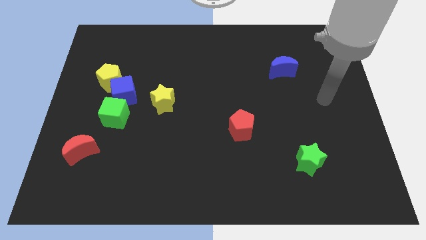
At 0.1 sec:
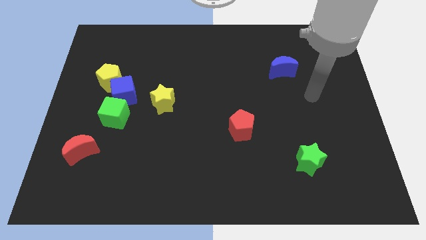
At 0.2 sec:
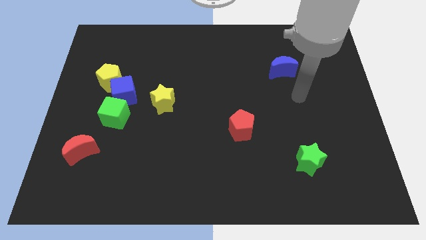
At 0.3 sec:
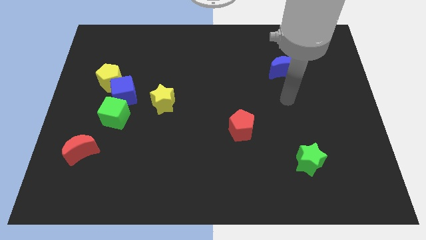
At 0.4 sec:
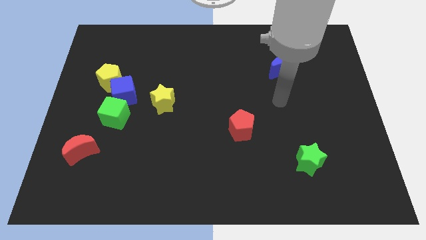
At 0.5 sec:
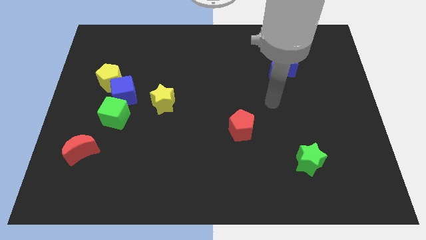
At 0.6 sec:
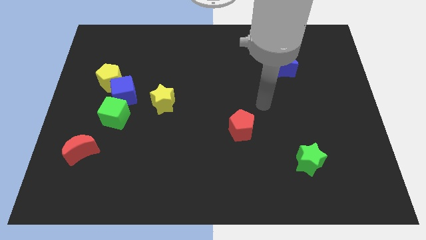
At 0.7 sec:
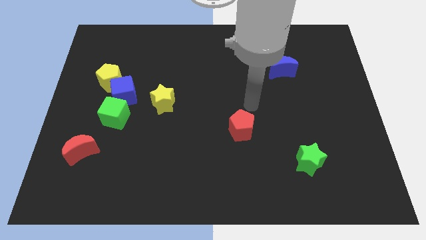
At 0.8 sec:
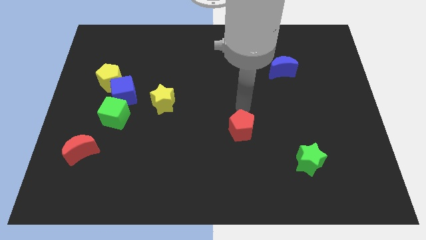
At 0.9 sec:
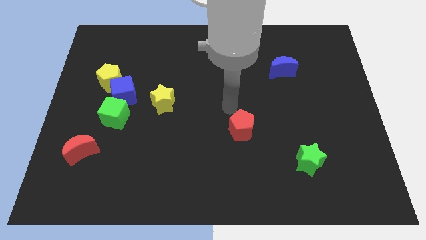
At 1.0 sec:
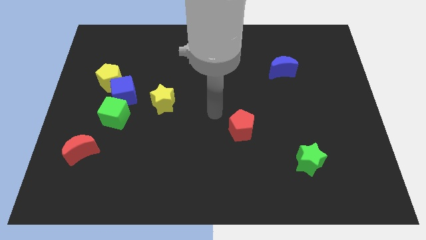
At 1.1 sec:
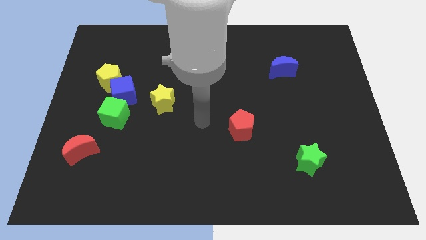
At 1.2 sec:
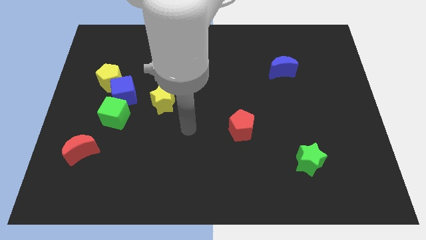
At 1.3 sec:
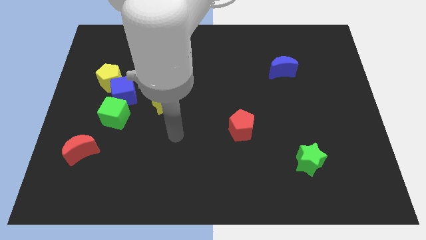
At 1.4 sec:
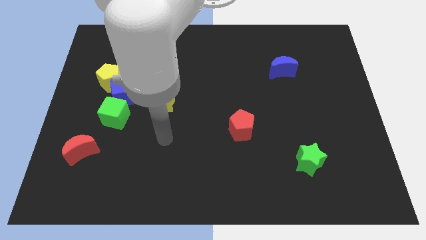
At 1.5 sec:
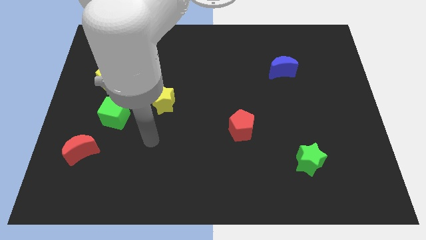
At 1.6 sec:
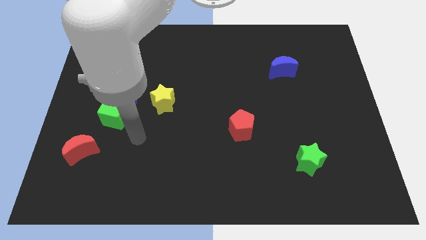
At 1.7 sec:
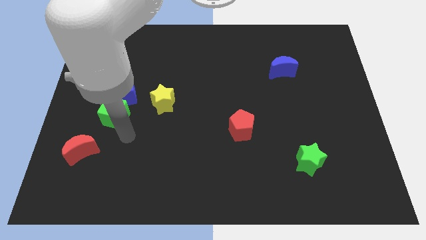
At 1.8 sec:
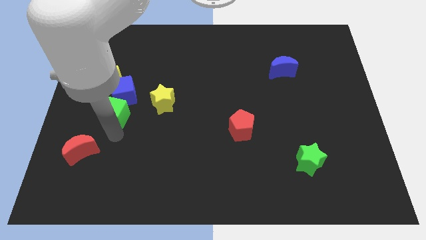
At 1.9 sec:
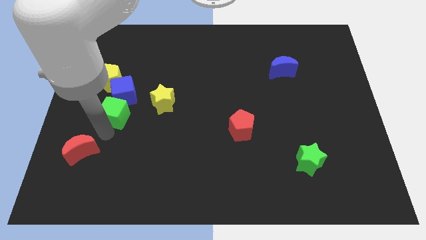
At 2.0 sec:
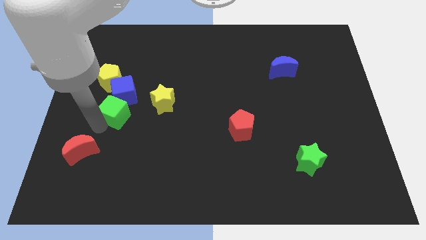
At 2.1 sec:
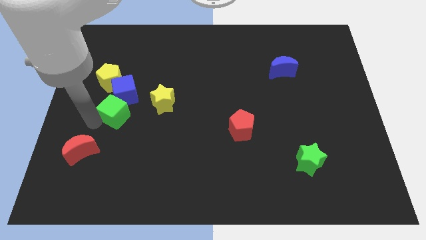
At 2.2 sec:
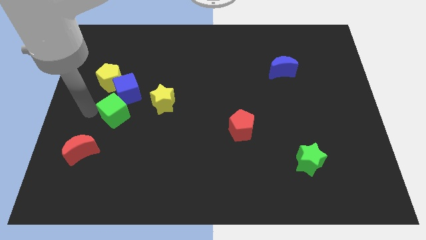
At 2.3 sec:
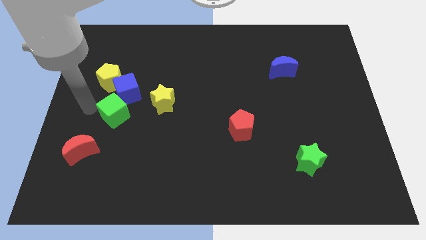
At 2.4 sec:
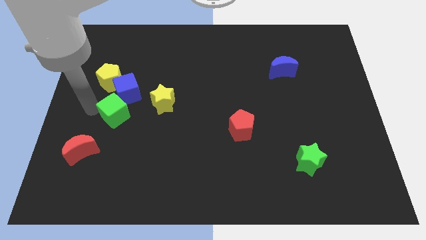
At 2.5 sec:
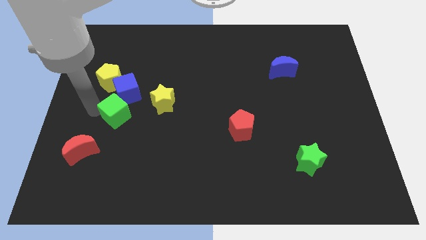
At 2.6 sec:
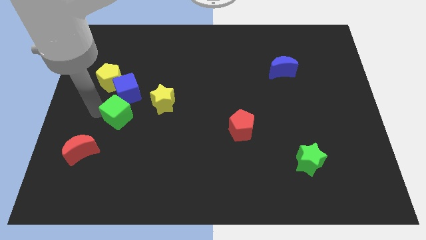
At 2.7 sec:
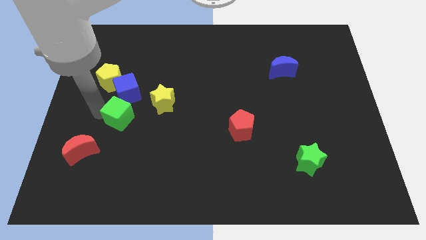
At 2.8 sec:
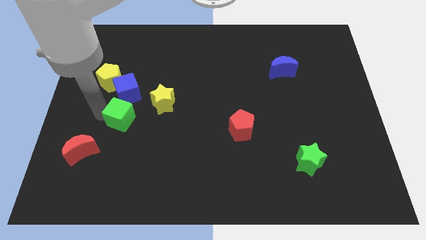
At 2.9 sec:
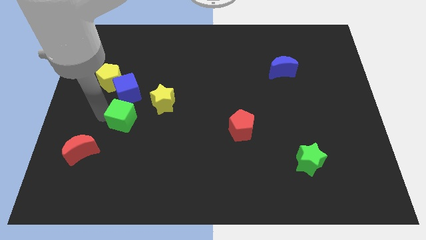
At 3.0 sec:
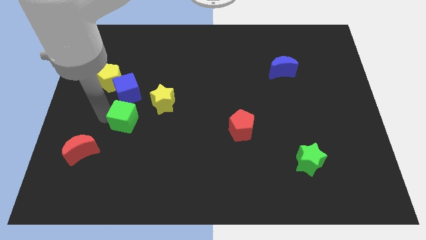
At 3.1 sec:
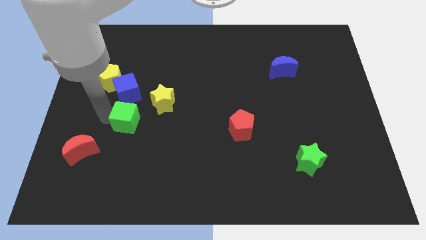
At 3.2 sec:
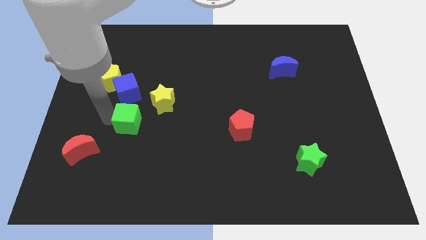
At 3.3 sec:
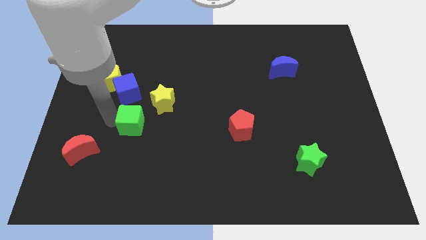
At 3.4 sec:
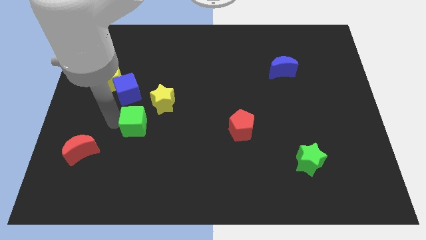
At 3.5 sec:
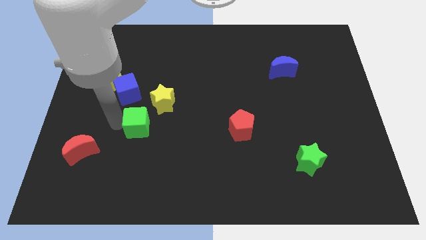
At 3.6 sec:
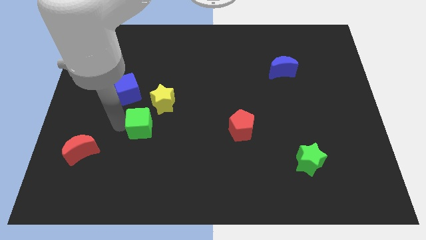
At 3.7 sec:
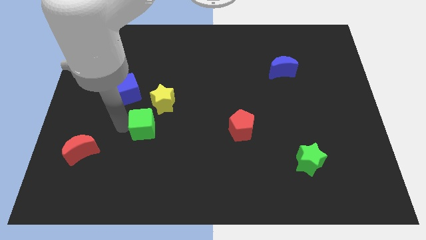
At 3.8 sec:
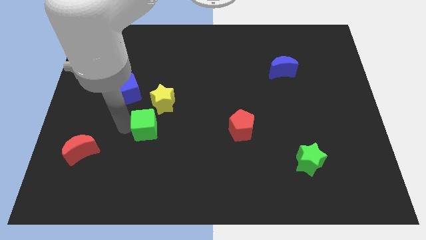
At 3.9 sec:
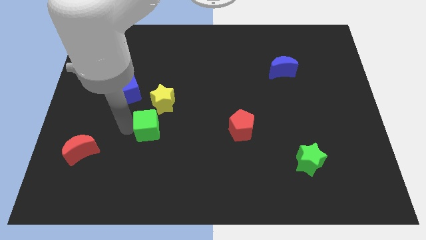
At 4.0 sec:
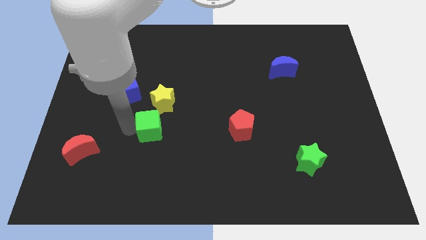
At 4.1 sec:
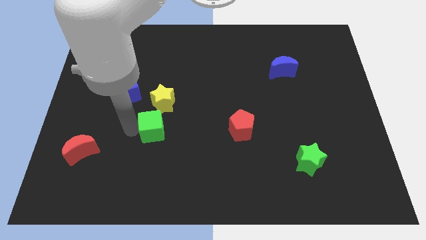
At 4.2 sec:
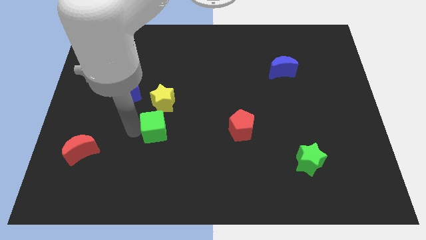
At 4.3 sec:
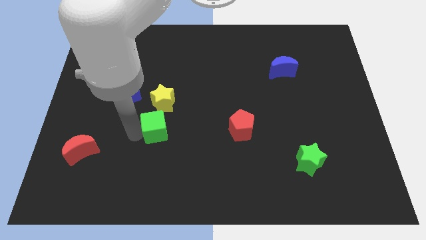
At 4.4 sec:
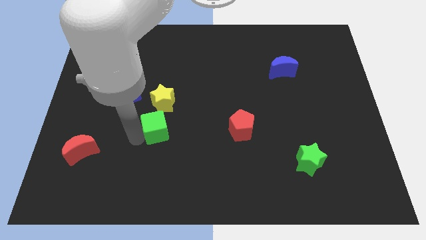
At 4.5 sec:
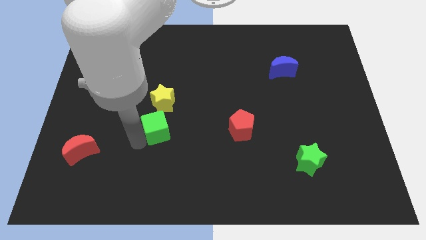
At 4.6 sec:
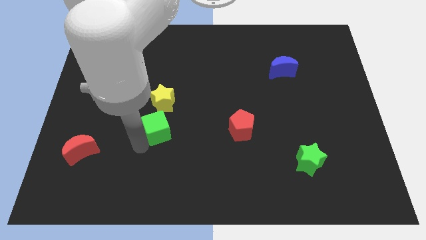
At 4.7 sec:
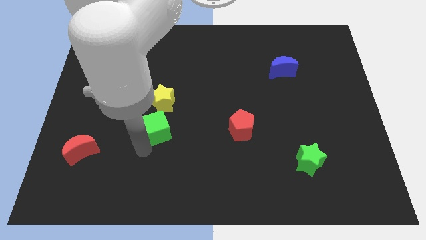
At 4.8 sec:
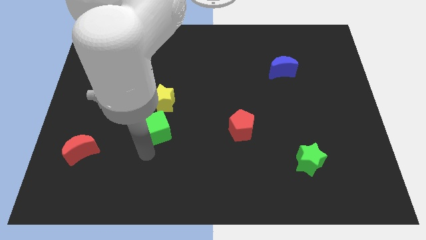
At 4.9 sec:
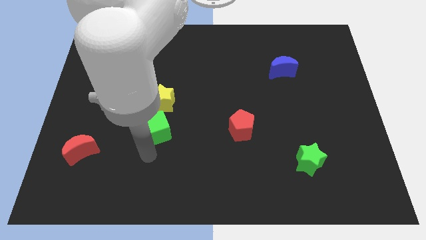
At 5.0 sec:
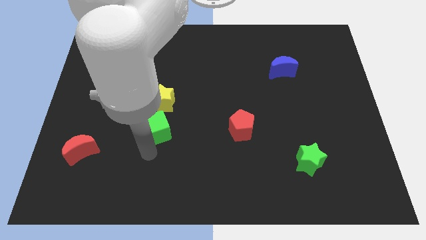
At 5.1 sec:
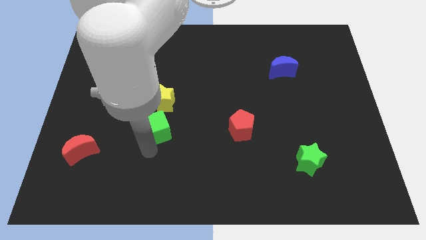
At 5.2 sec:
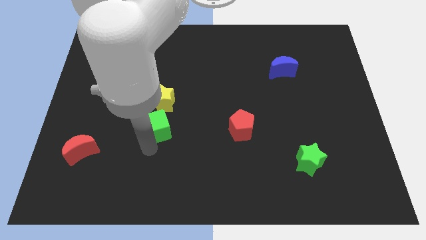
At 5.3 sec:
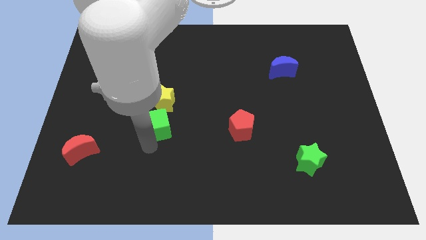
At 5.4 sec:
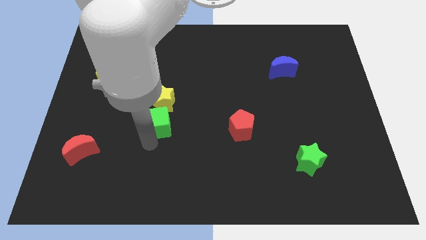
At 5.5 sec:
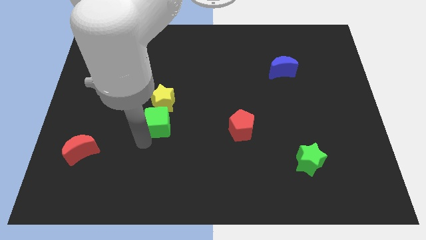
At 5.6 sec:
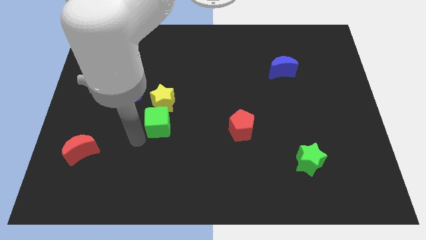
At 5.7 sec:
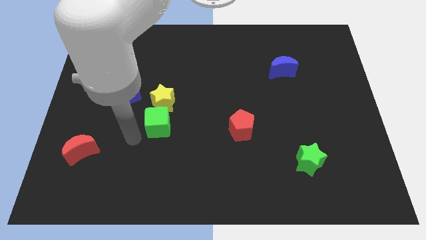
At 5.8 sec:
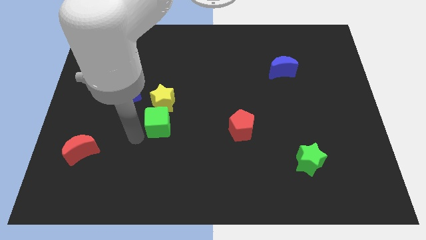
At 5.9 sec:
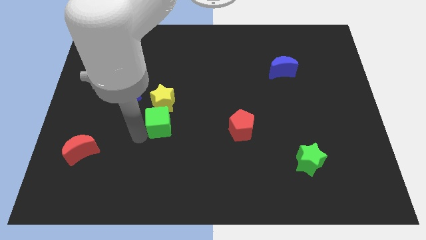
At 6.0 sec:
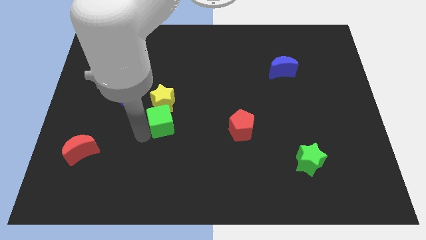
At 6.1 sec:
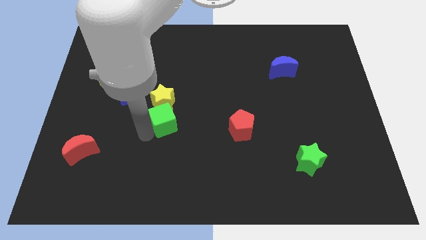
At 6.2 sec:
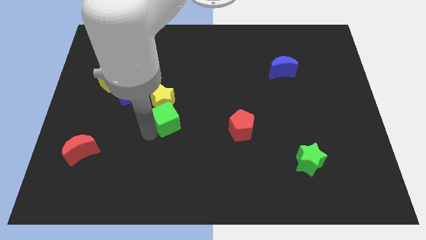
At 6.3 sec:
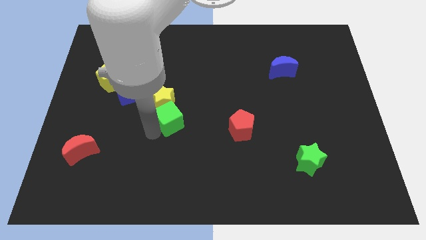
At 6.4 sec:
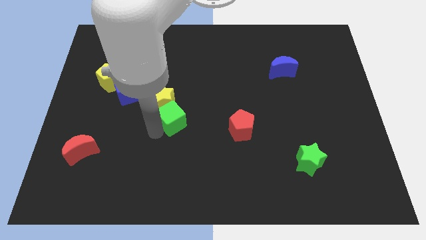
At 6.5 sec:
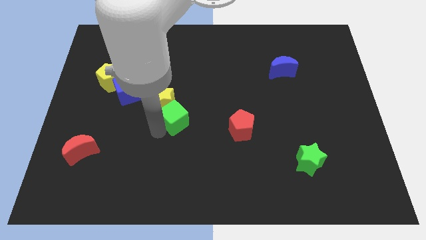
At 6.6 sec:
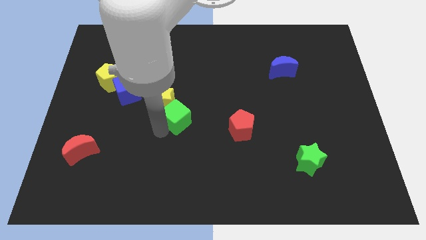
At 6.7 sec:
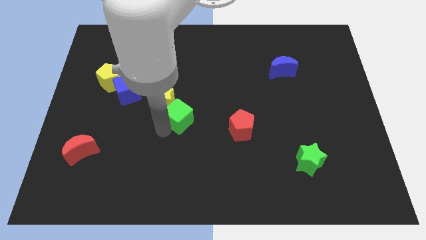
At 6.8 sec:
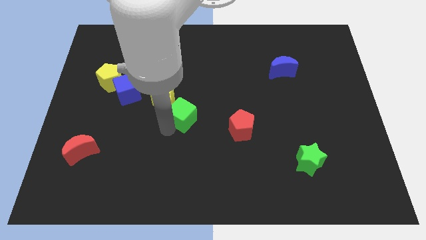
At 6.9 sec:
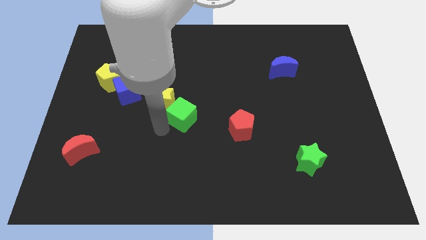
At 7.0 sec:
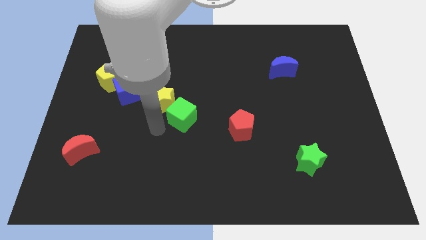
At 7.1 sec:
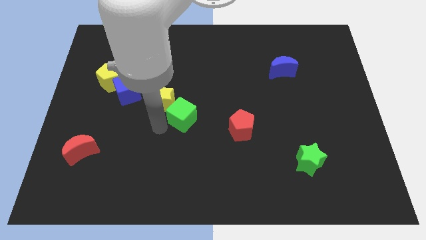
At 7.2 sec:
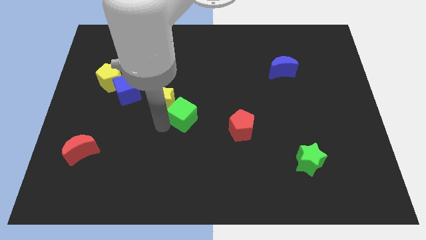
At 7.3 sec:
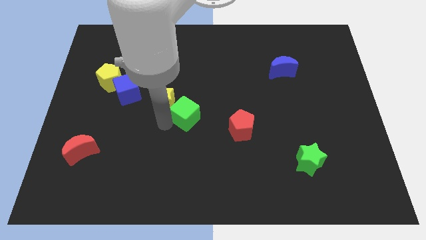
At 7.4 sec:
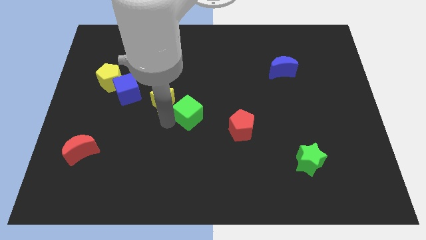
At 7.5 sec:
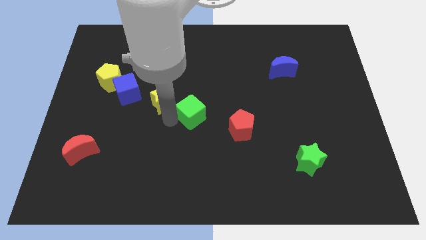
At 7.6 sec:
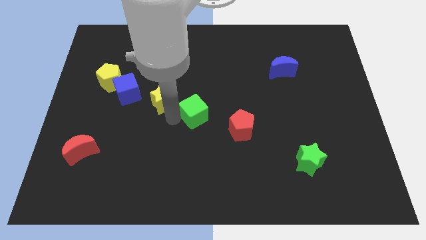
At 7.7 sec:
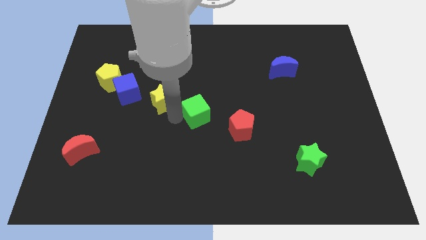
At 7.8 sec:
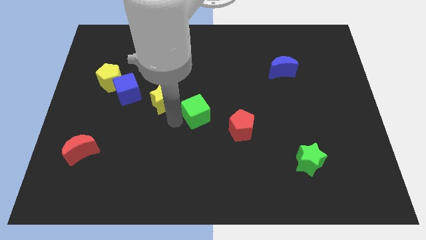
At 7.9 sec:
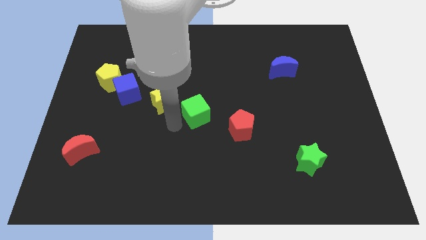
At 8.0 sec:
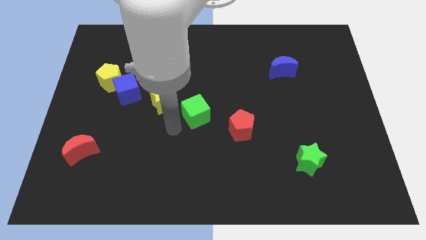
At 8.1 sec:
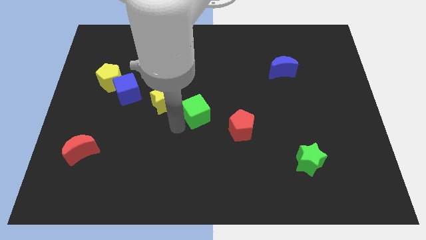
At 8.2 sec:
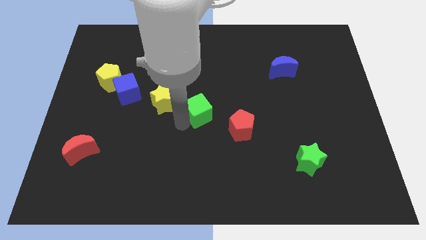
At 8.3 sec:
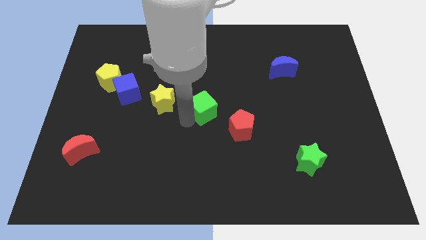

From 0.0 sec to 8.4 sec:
slide the green cube right
